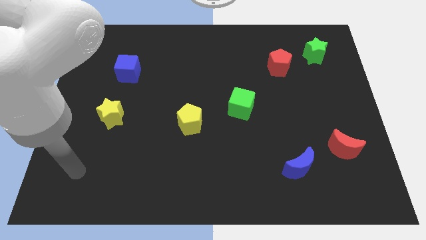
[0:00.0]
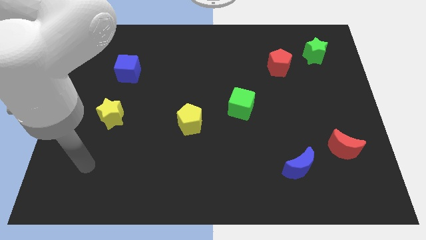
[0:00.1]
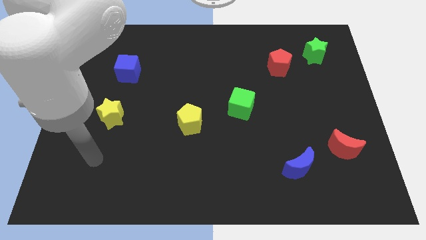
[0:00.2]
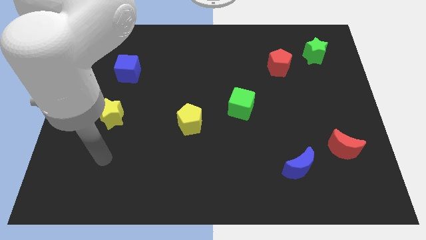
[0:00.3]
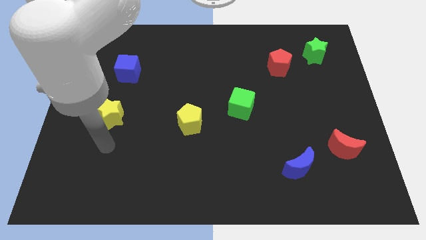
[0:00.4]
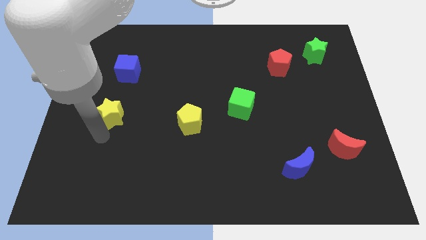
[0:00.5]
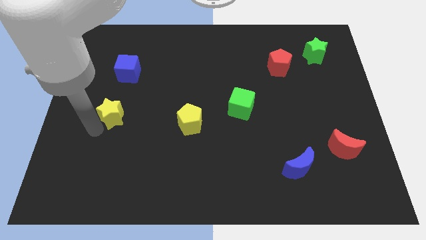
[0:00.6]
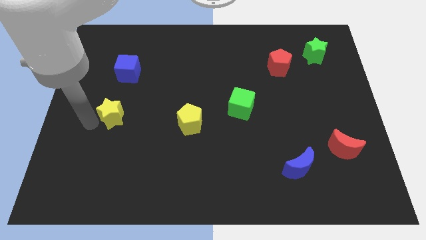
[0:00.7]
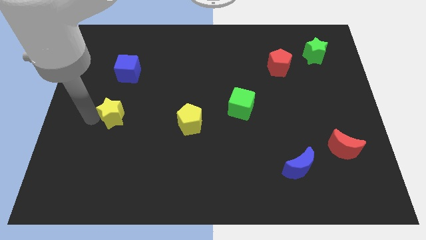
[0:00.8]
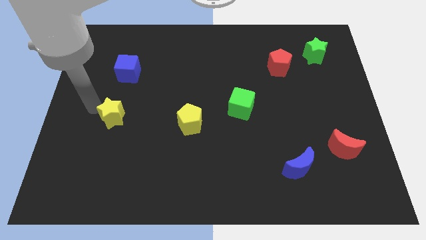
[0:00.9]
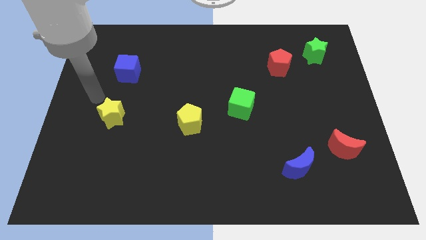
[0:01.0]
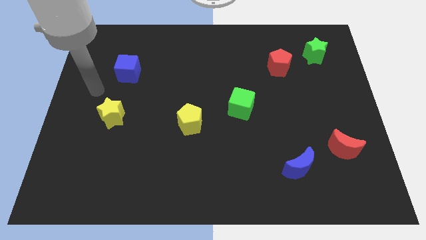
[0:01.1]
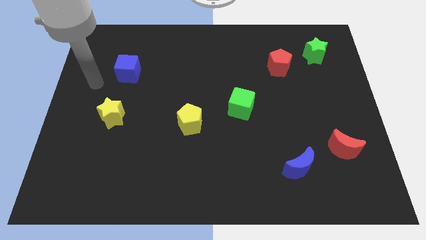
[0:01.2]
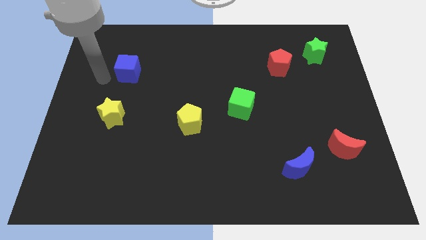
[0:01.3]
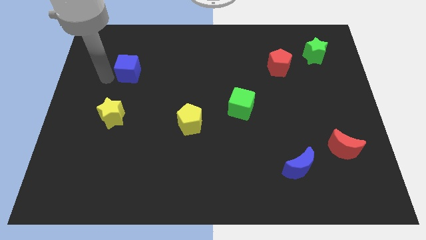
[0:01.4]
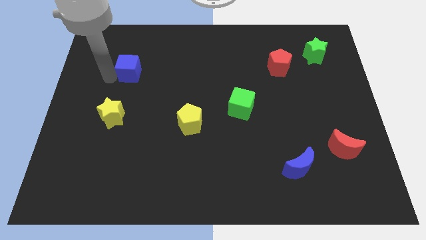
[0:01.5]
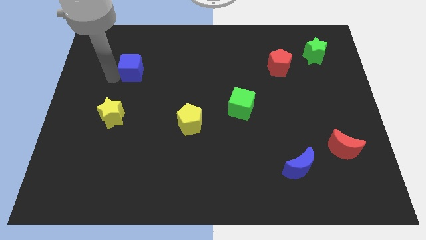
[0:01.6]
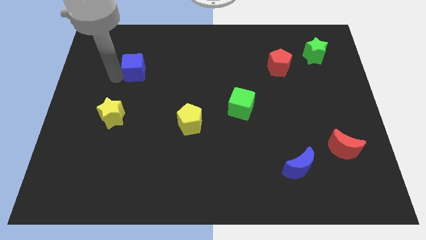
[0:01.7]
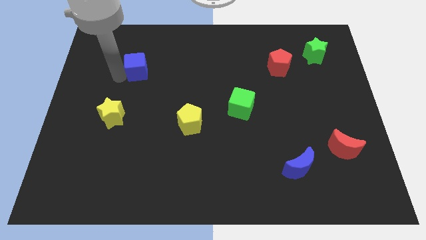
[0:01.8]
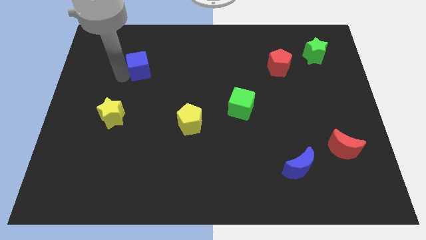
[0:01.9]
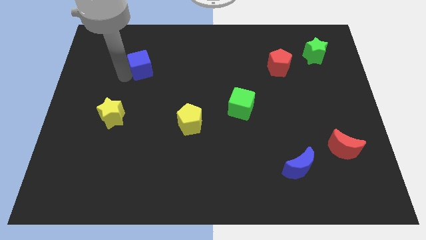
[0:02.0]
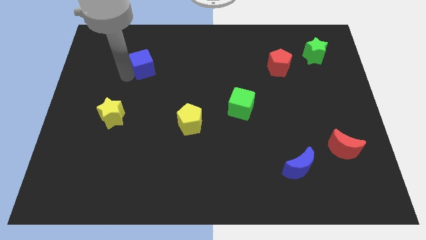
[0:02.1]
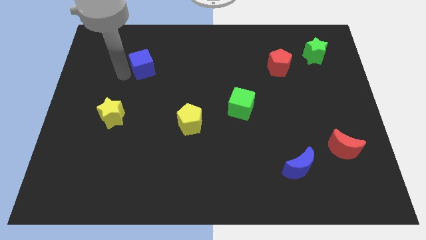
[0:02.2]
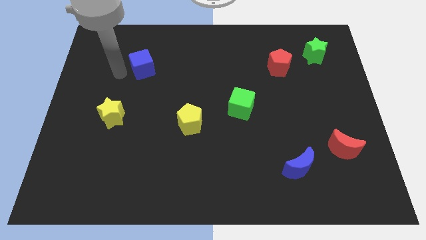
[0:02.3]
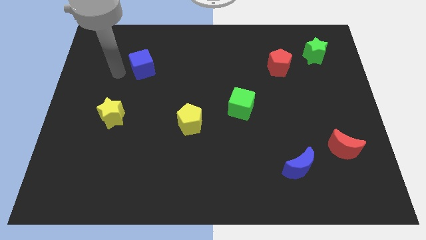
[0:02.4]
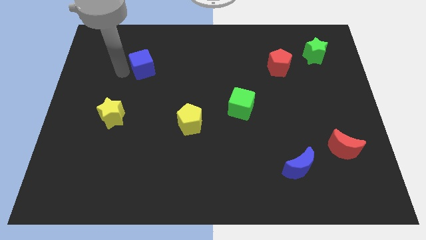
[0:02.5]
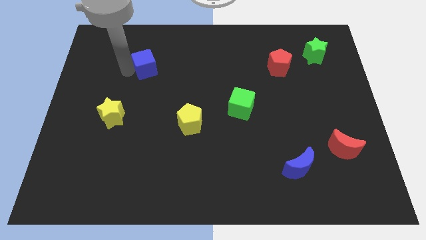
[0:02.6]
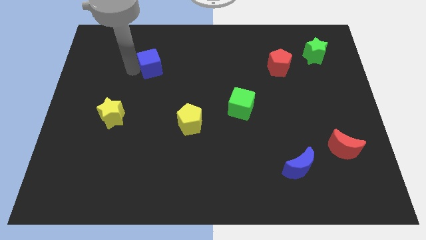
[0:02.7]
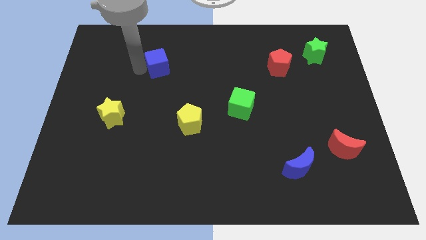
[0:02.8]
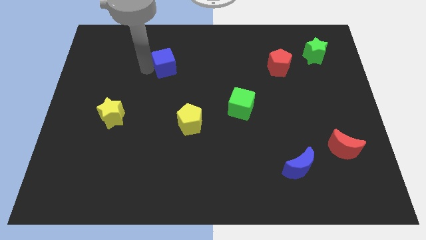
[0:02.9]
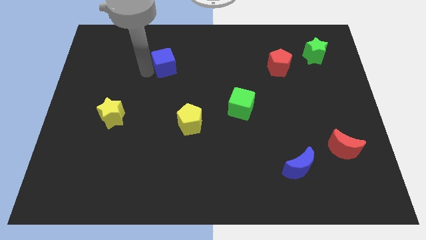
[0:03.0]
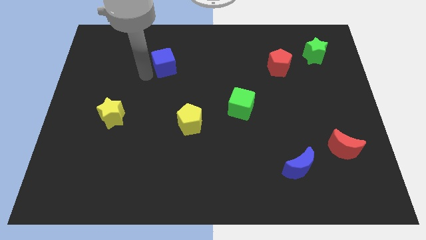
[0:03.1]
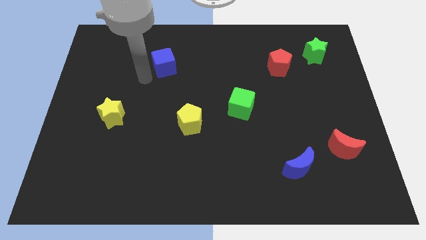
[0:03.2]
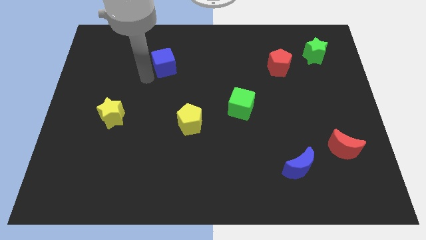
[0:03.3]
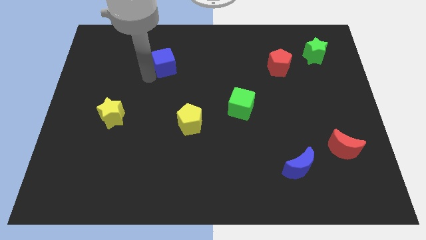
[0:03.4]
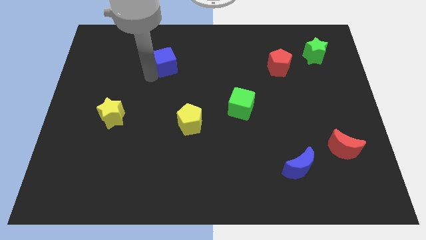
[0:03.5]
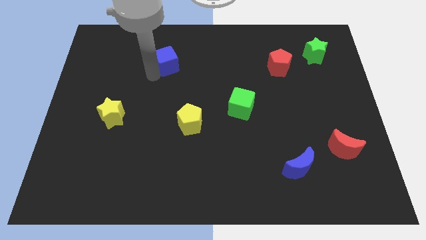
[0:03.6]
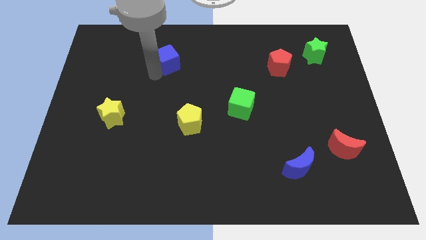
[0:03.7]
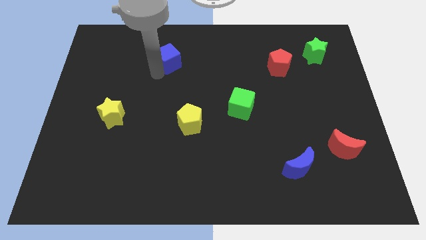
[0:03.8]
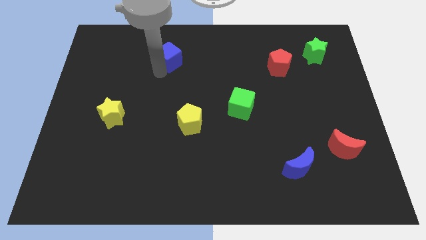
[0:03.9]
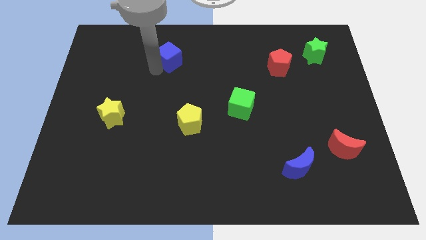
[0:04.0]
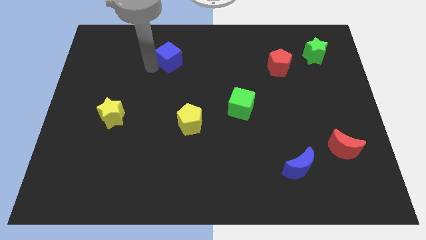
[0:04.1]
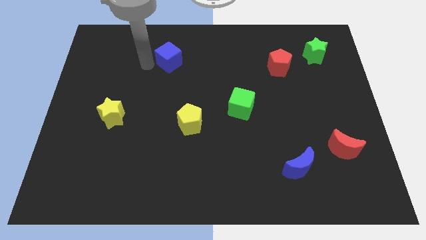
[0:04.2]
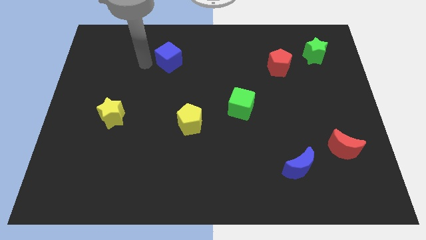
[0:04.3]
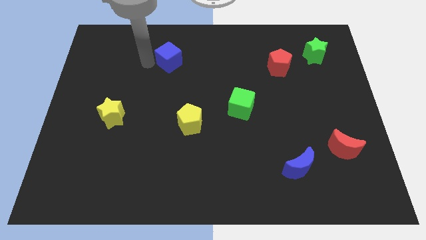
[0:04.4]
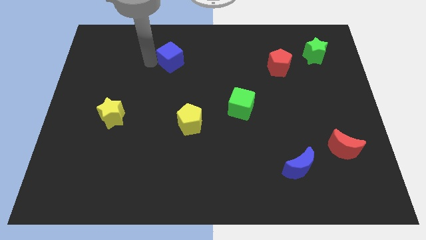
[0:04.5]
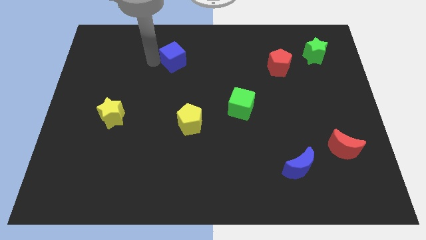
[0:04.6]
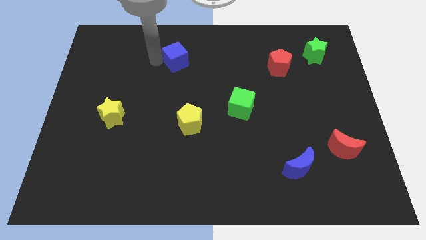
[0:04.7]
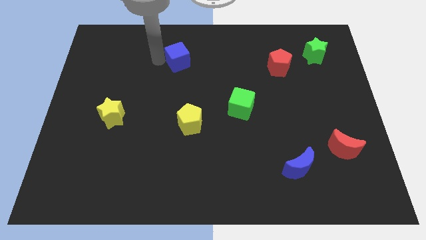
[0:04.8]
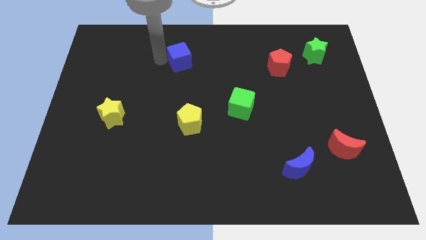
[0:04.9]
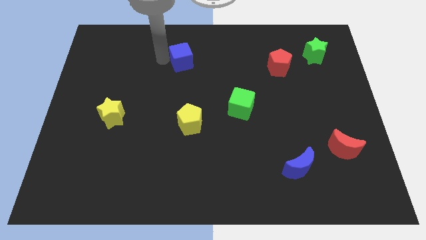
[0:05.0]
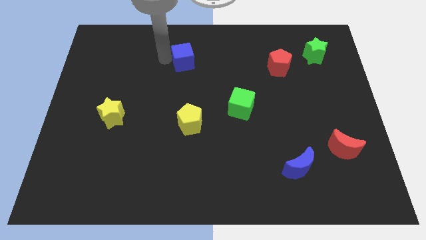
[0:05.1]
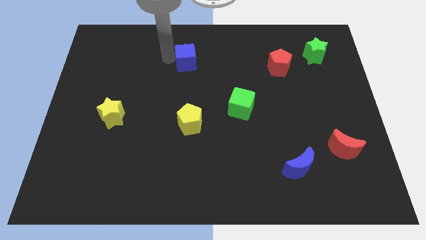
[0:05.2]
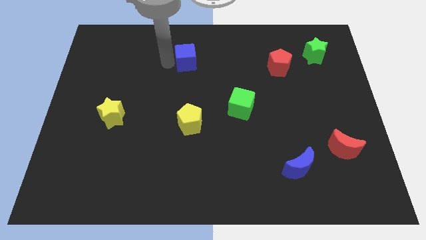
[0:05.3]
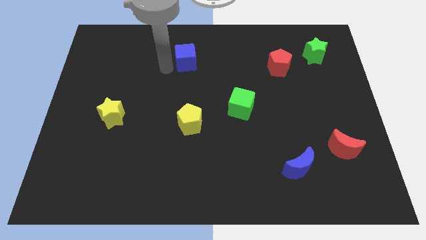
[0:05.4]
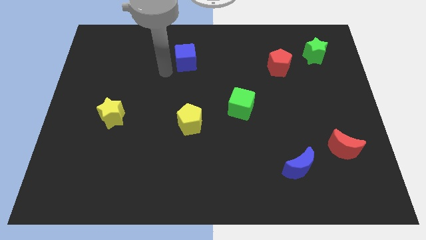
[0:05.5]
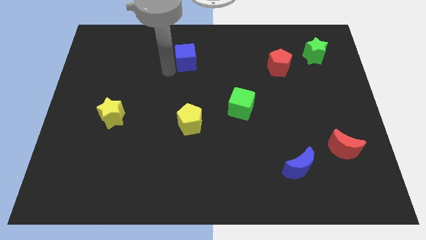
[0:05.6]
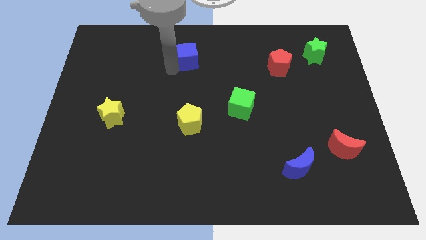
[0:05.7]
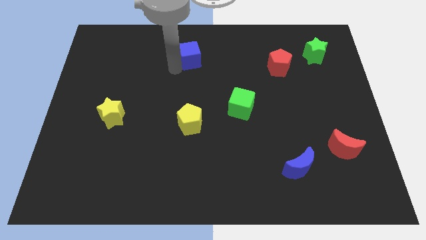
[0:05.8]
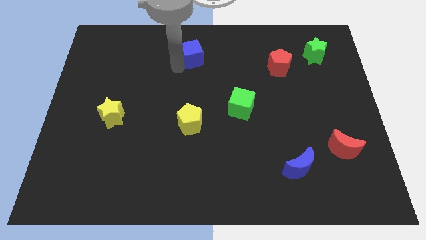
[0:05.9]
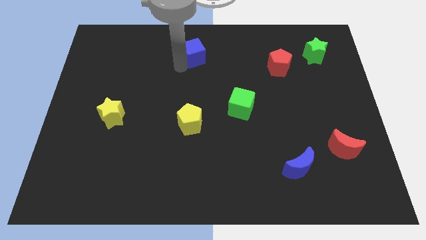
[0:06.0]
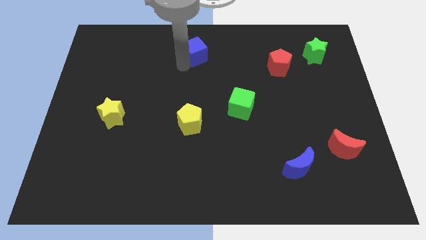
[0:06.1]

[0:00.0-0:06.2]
put the blue cube to the top side

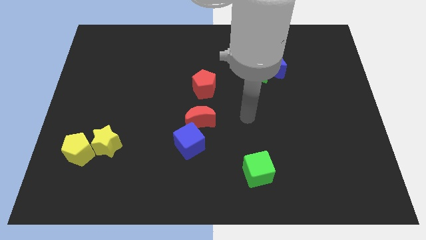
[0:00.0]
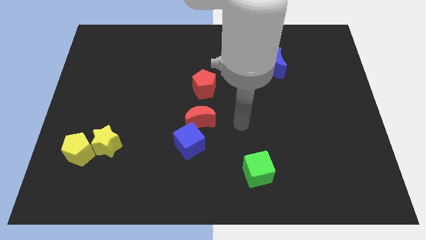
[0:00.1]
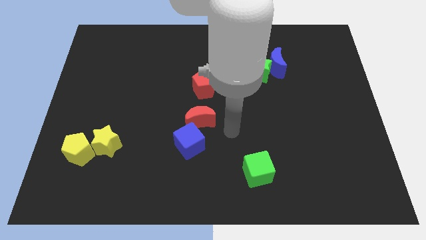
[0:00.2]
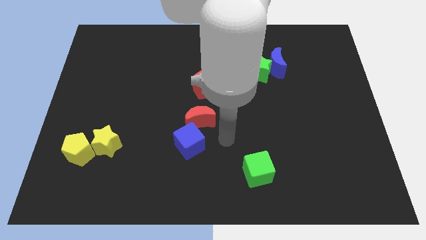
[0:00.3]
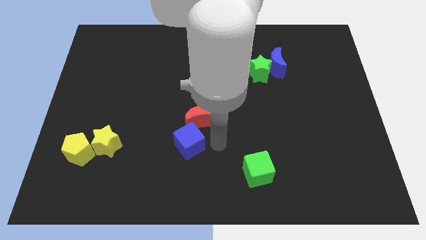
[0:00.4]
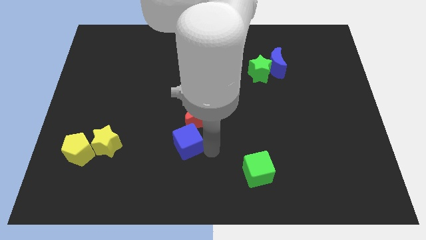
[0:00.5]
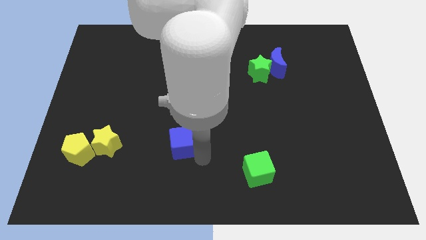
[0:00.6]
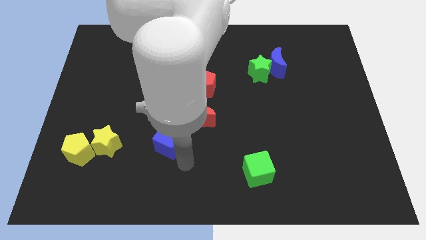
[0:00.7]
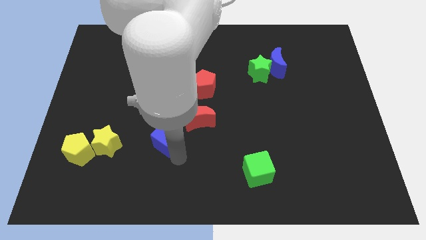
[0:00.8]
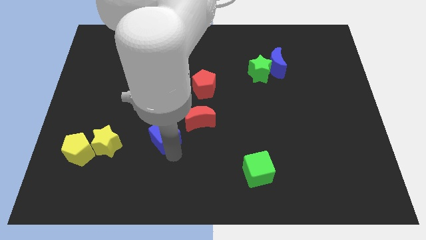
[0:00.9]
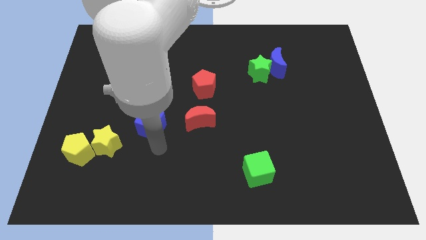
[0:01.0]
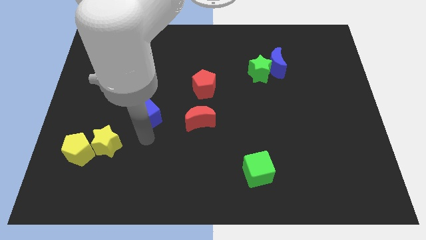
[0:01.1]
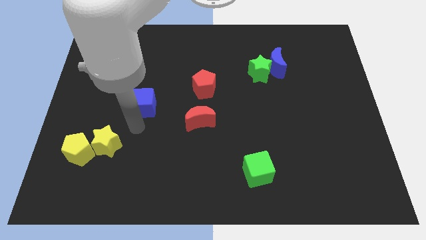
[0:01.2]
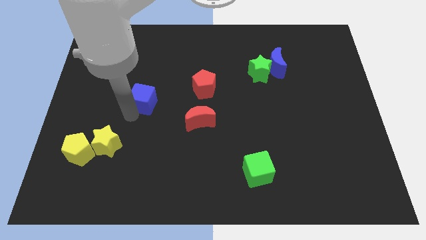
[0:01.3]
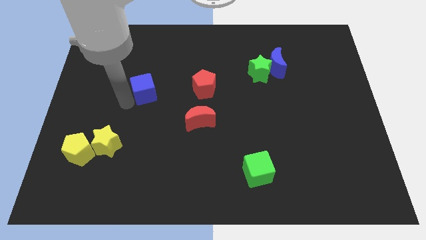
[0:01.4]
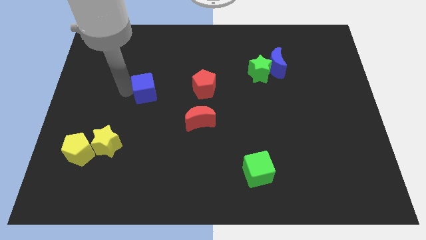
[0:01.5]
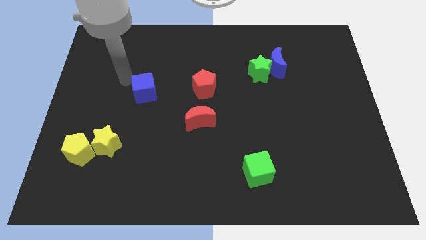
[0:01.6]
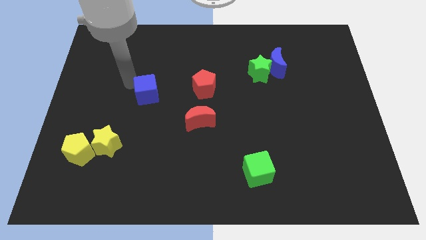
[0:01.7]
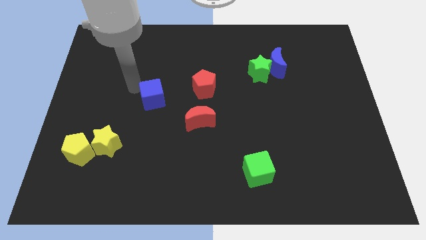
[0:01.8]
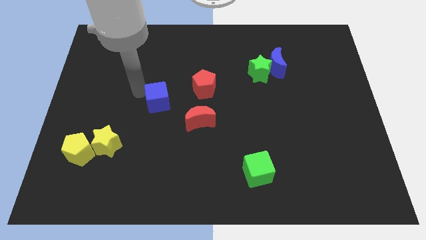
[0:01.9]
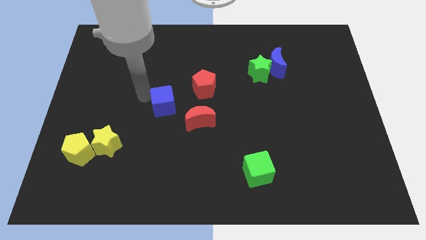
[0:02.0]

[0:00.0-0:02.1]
put the blue cube to the middle of the board
